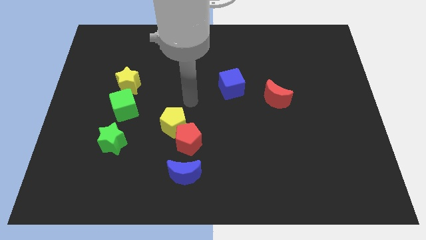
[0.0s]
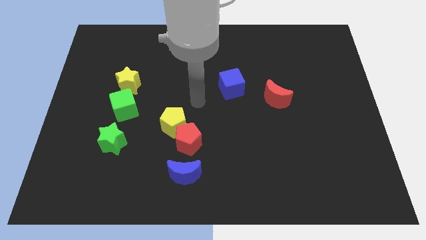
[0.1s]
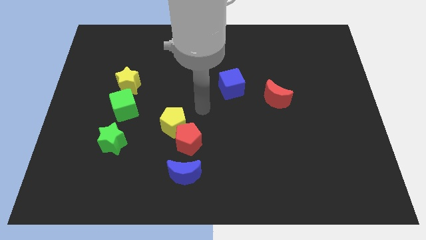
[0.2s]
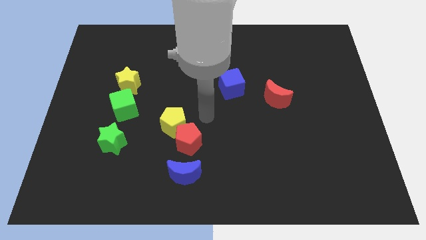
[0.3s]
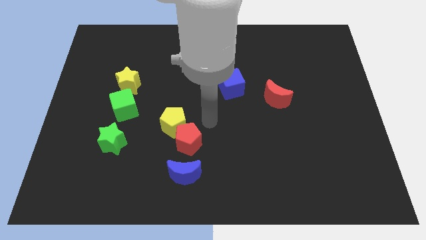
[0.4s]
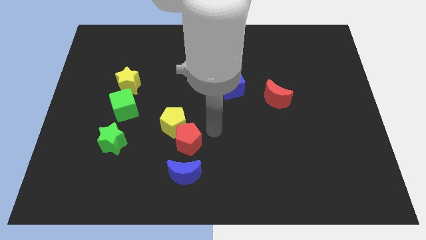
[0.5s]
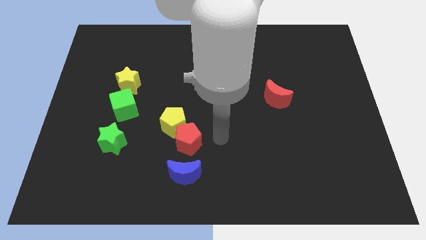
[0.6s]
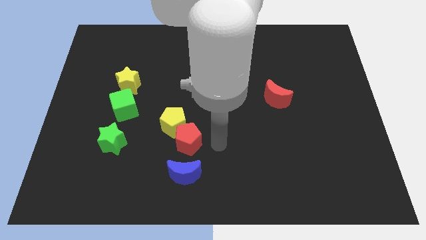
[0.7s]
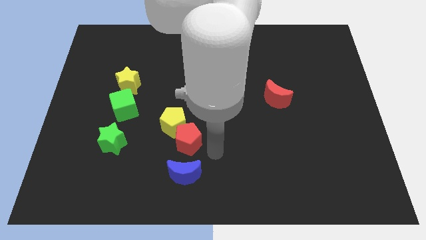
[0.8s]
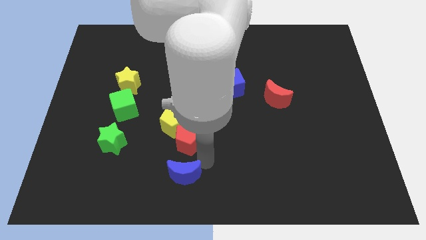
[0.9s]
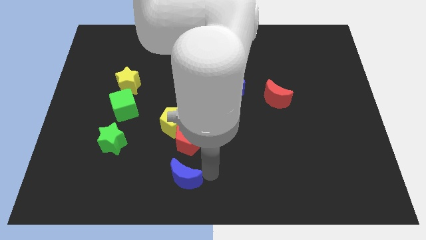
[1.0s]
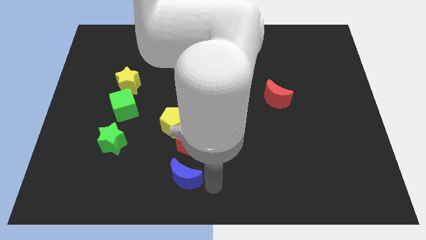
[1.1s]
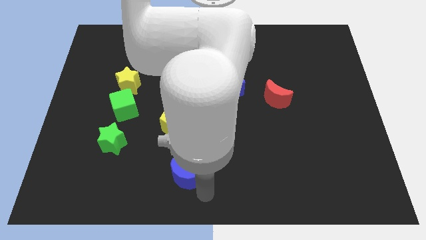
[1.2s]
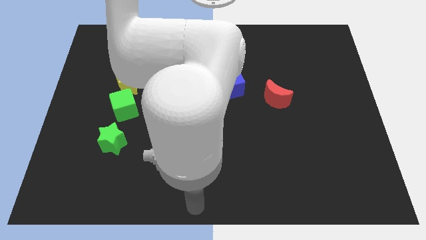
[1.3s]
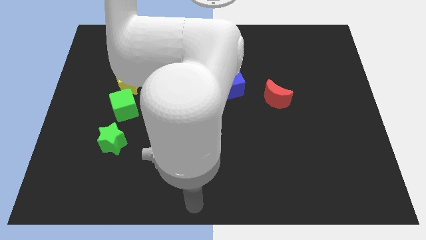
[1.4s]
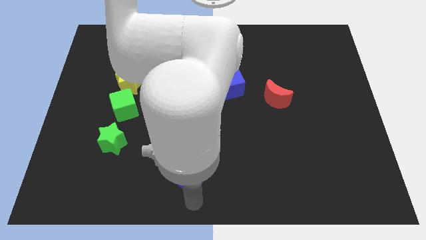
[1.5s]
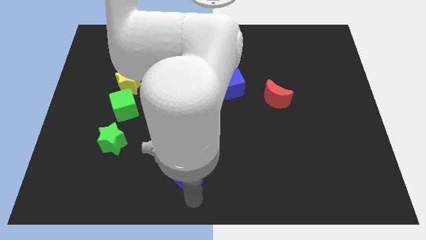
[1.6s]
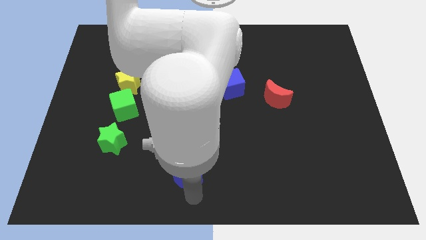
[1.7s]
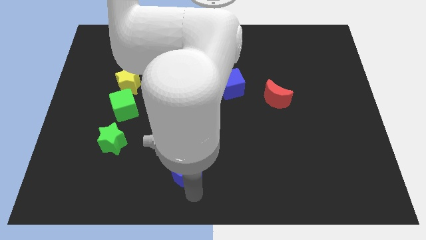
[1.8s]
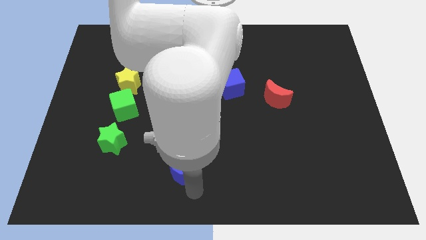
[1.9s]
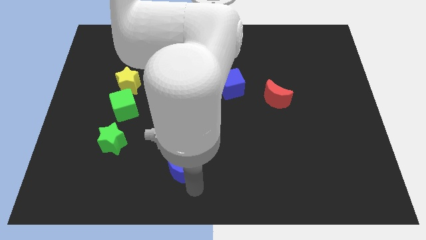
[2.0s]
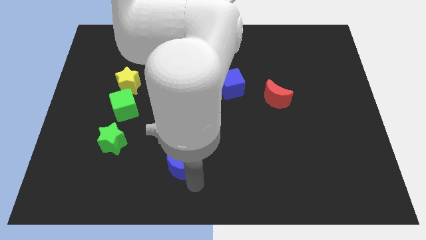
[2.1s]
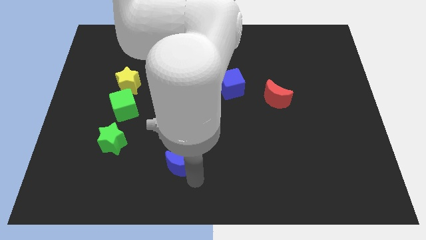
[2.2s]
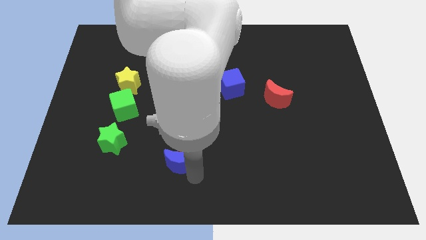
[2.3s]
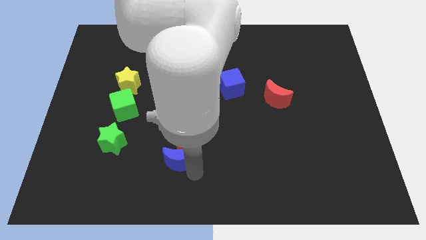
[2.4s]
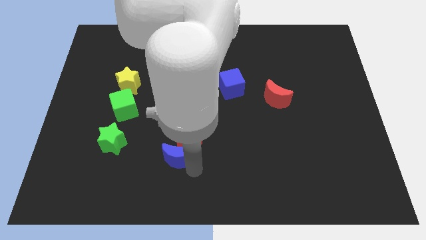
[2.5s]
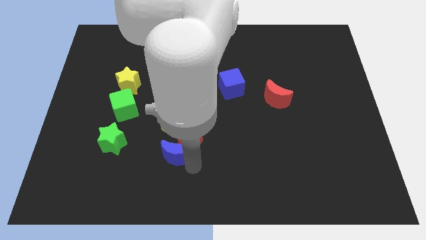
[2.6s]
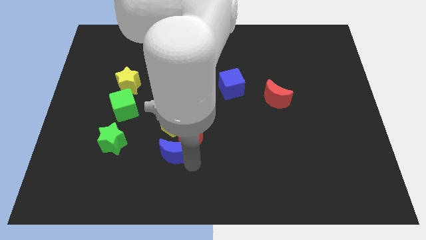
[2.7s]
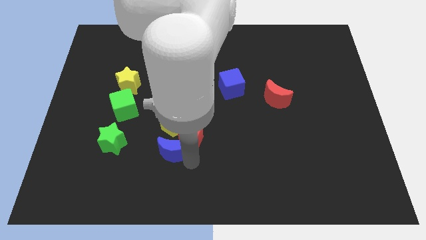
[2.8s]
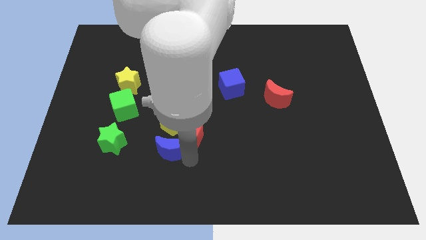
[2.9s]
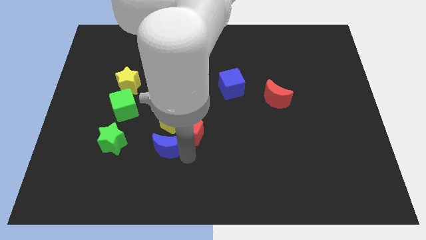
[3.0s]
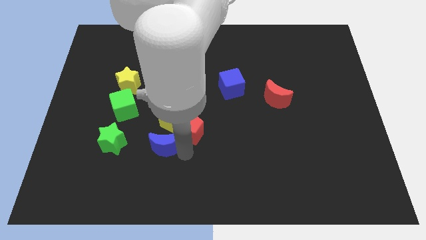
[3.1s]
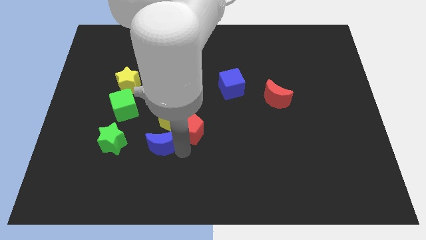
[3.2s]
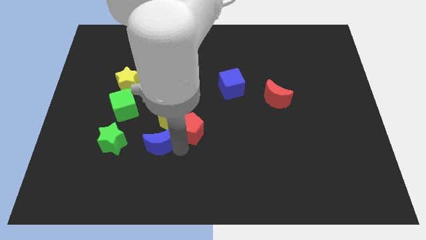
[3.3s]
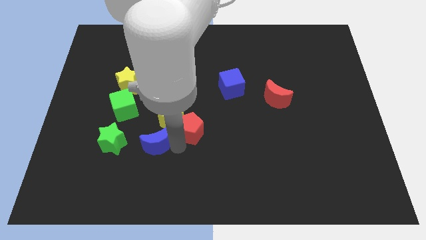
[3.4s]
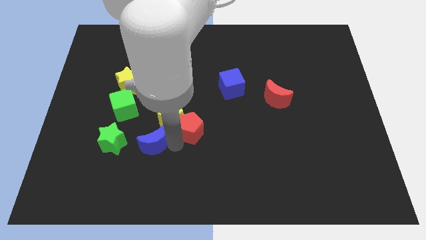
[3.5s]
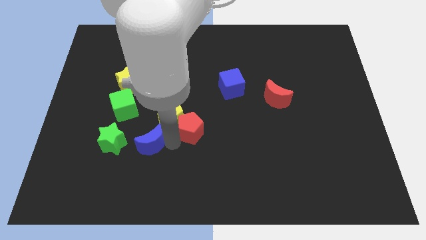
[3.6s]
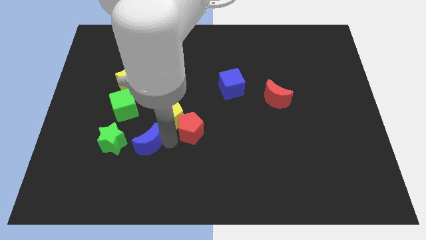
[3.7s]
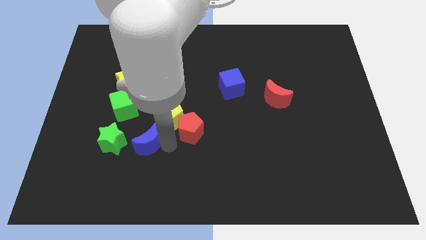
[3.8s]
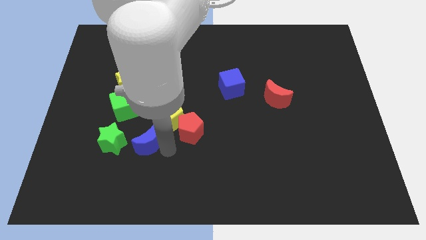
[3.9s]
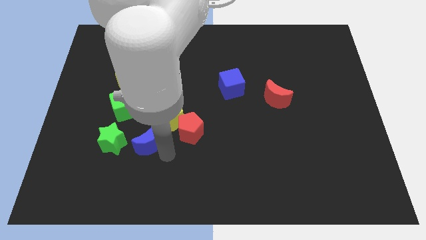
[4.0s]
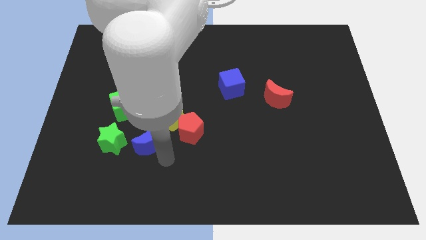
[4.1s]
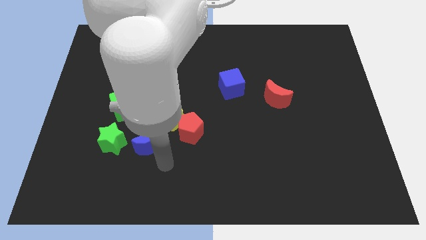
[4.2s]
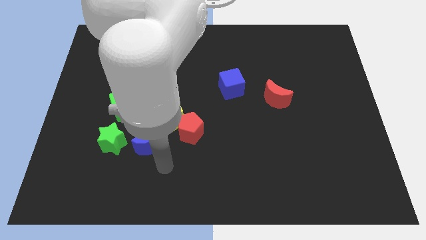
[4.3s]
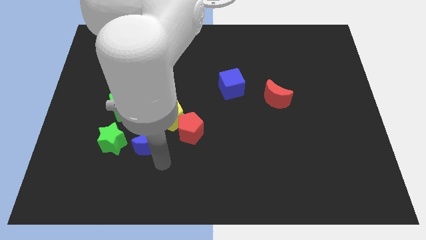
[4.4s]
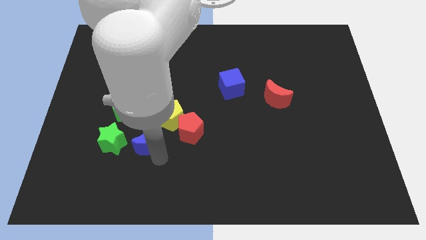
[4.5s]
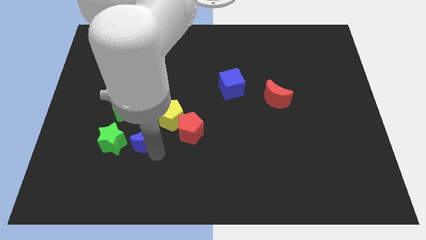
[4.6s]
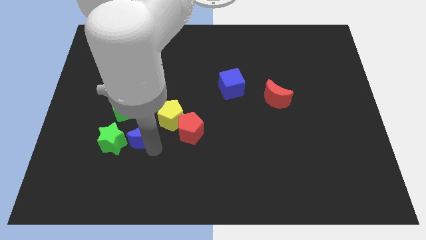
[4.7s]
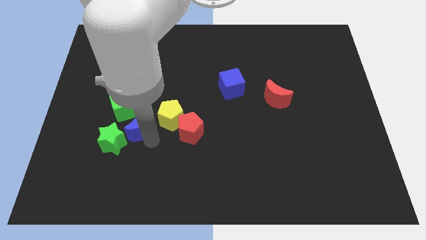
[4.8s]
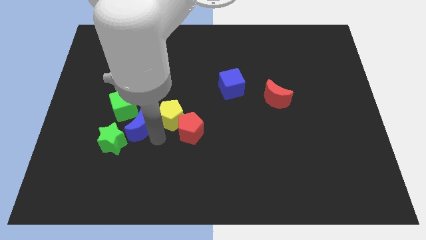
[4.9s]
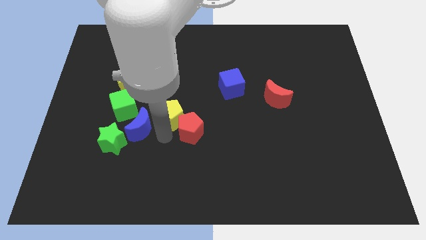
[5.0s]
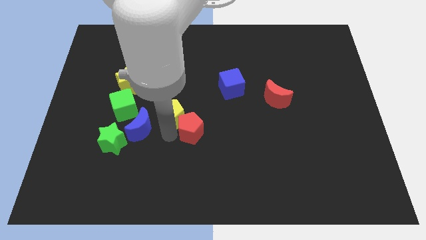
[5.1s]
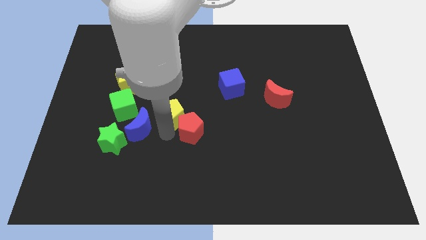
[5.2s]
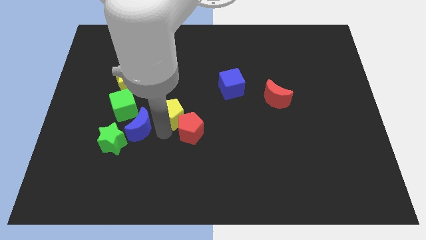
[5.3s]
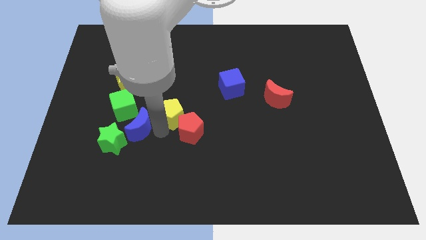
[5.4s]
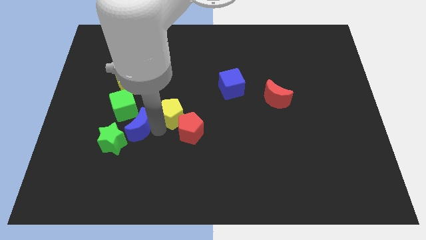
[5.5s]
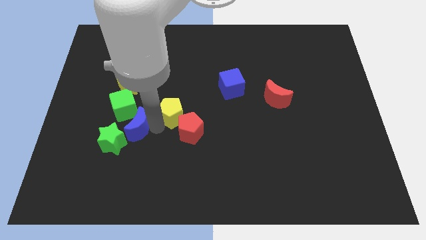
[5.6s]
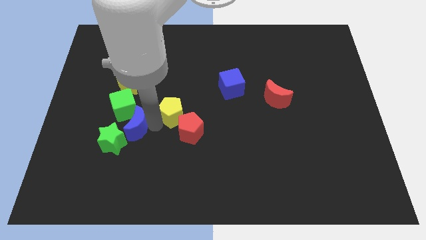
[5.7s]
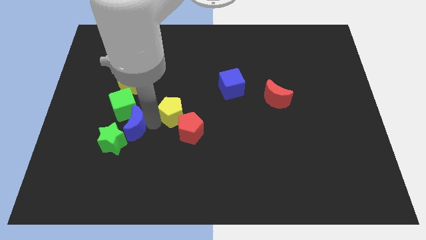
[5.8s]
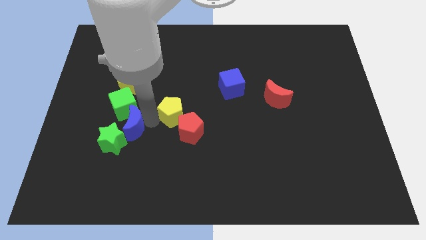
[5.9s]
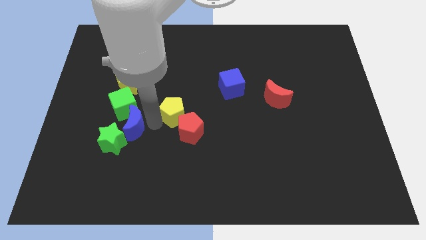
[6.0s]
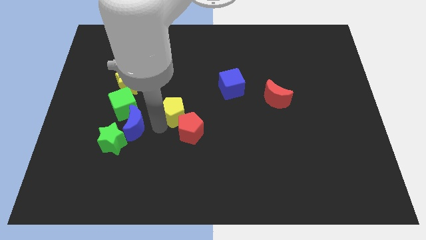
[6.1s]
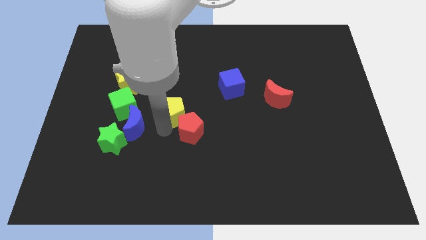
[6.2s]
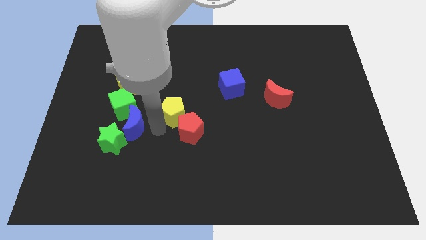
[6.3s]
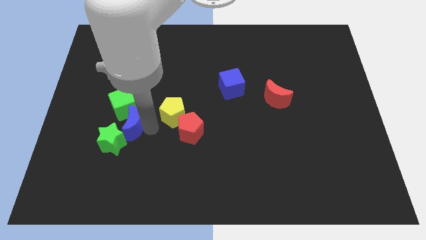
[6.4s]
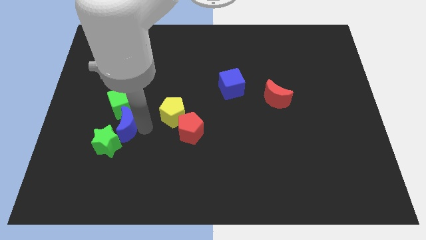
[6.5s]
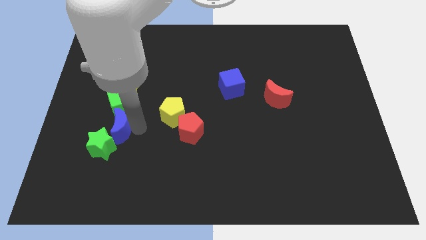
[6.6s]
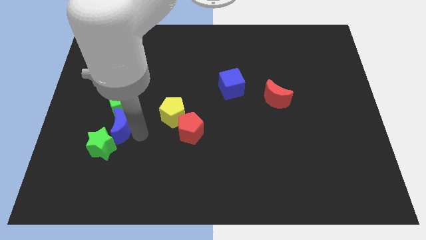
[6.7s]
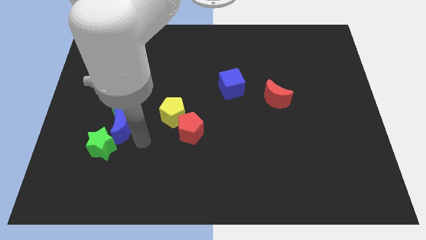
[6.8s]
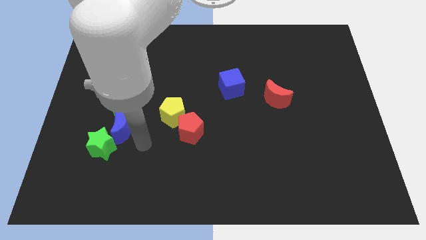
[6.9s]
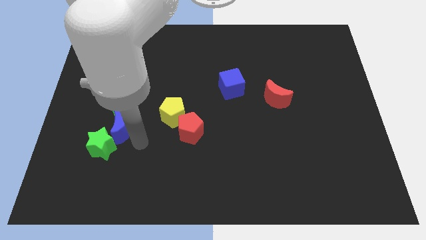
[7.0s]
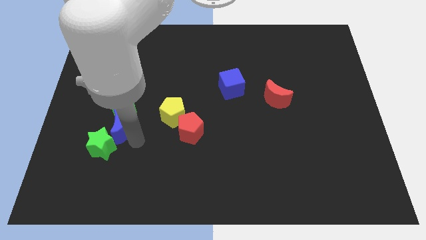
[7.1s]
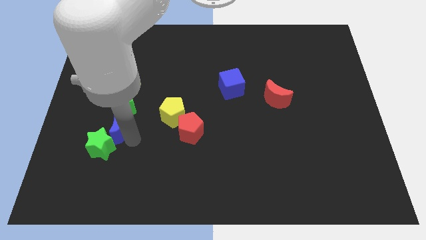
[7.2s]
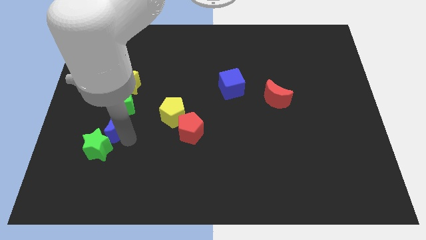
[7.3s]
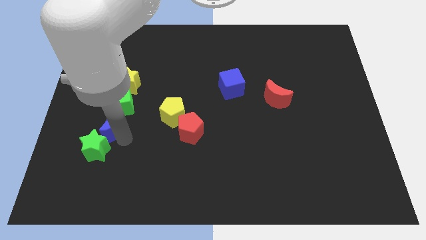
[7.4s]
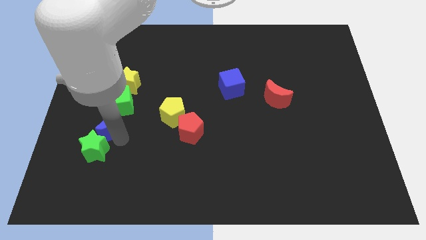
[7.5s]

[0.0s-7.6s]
move the blue moon upwards and to the left diagonally

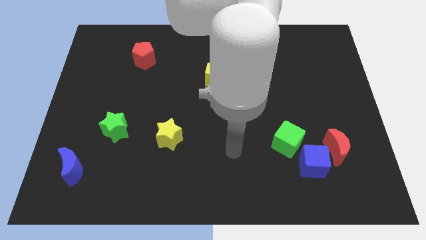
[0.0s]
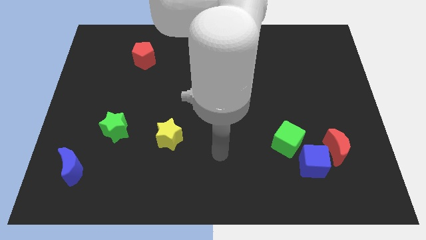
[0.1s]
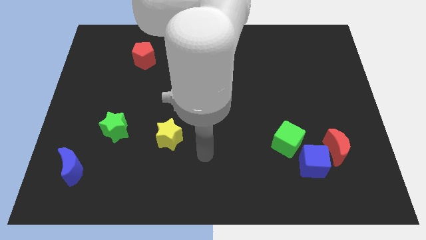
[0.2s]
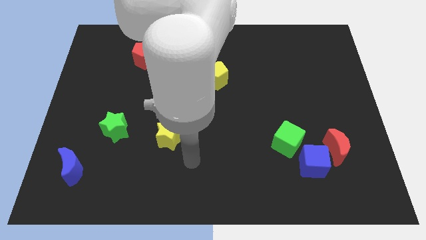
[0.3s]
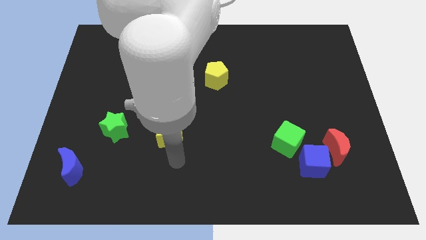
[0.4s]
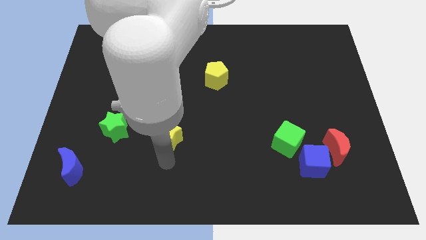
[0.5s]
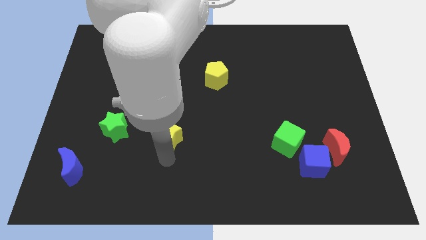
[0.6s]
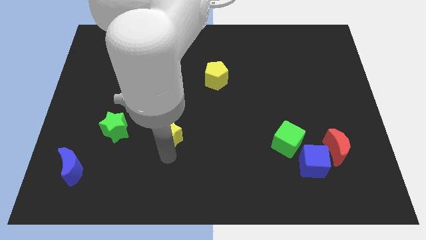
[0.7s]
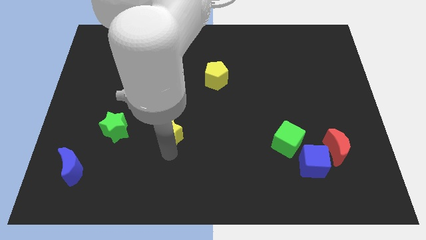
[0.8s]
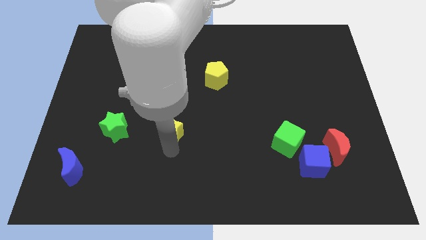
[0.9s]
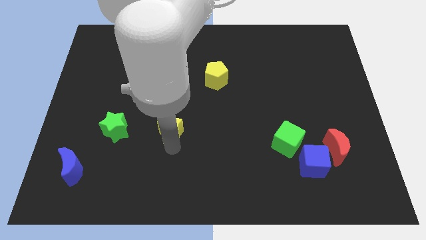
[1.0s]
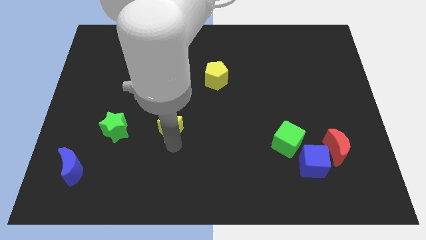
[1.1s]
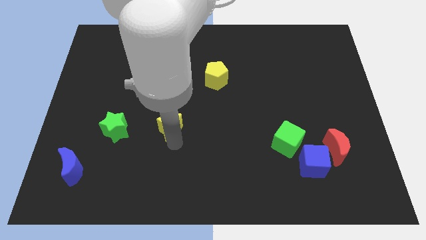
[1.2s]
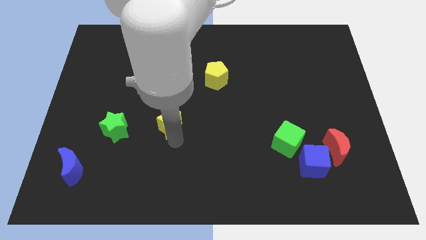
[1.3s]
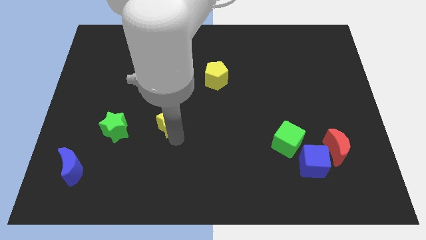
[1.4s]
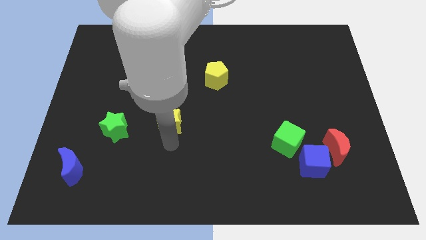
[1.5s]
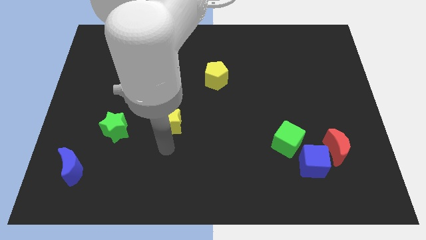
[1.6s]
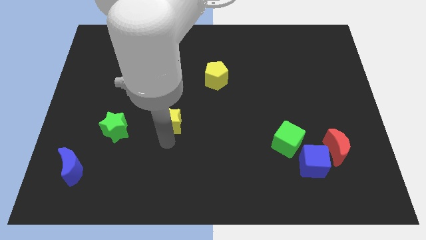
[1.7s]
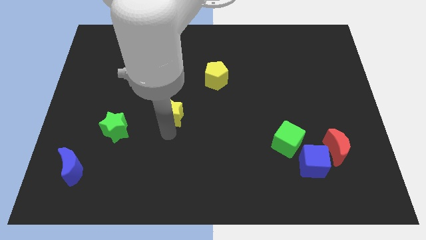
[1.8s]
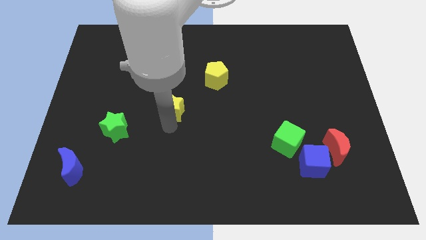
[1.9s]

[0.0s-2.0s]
slightly push the yellow star up
